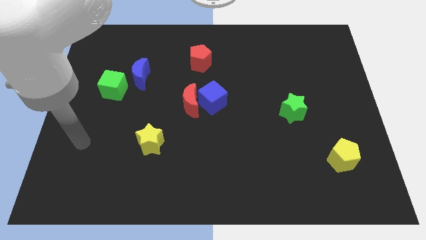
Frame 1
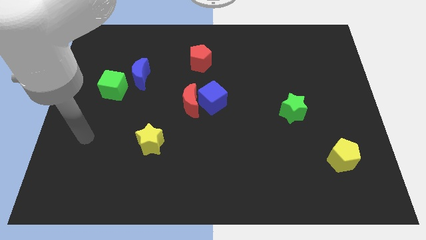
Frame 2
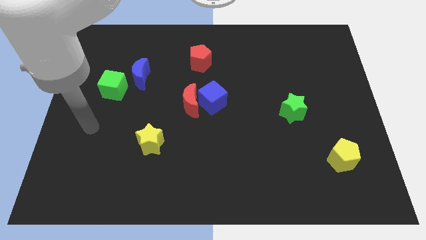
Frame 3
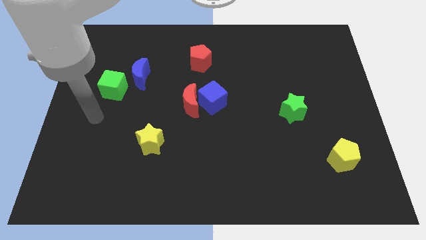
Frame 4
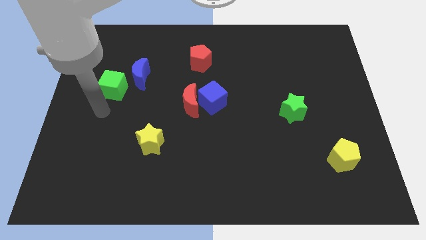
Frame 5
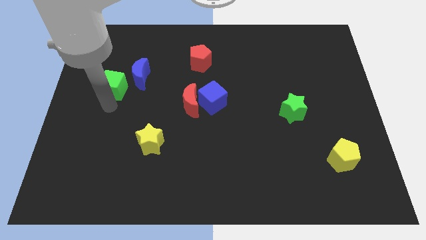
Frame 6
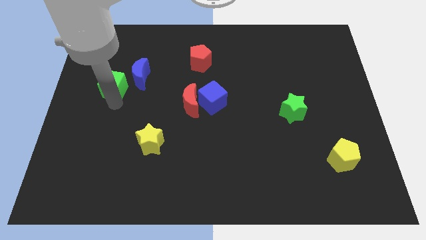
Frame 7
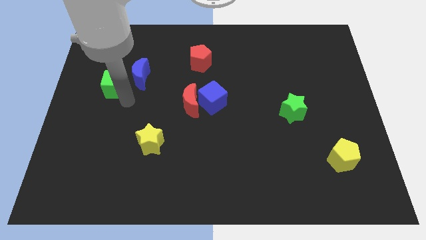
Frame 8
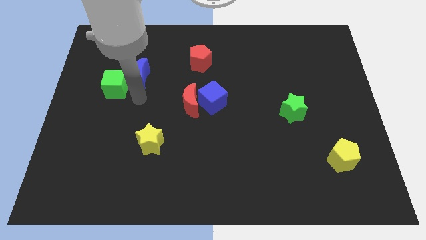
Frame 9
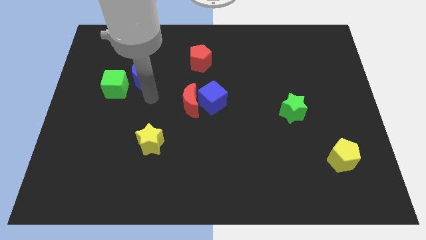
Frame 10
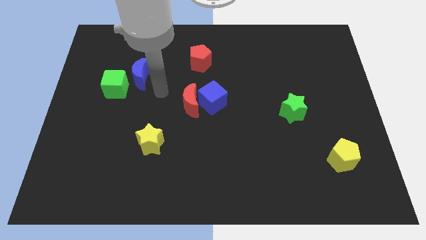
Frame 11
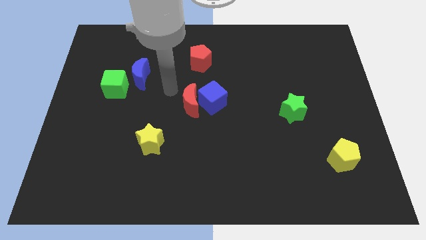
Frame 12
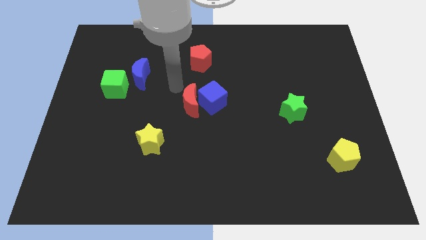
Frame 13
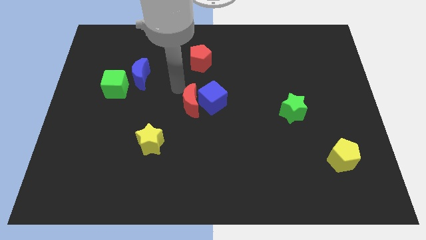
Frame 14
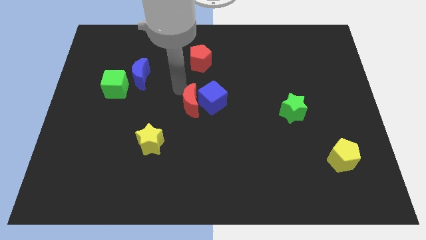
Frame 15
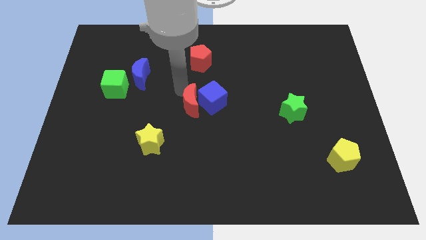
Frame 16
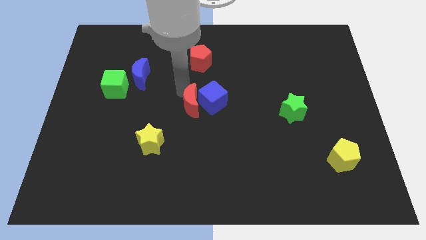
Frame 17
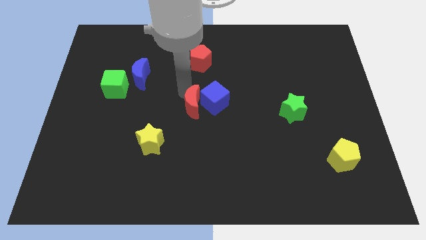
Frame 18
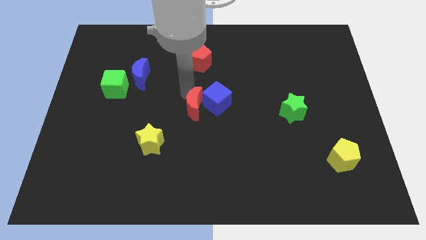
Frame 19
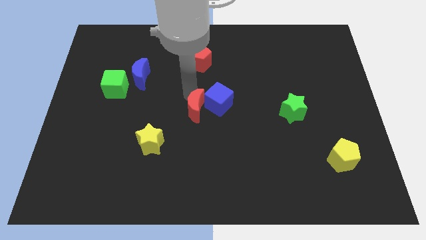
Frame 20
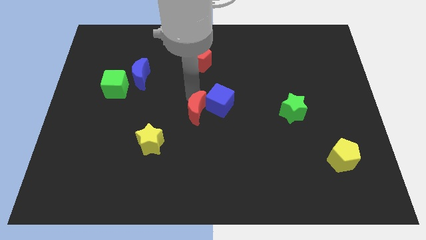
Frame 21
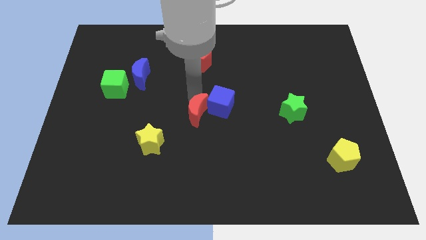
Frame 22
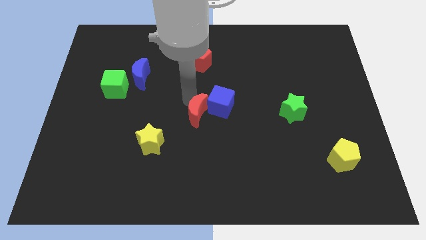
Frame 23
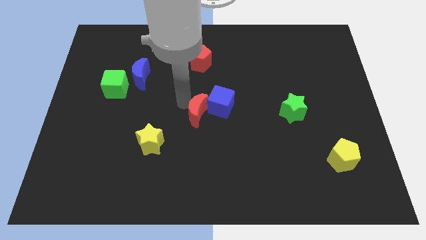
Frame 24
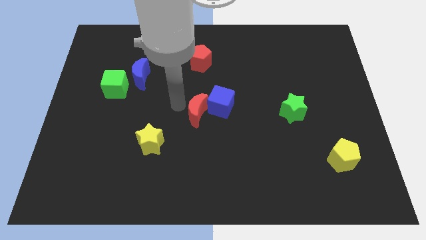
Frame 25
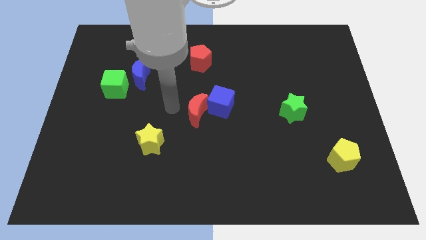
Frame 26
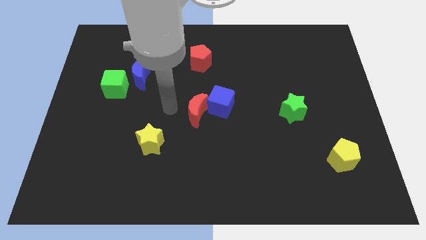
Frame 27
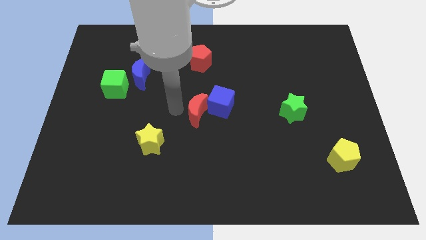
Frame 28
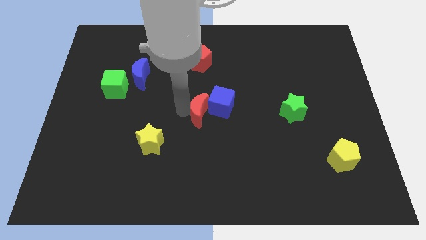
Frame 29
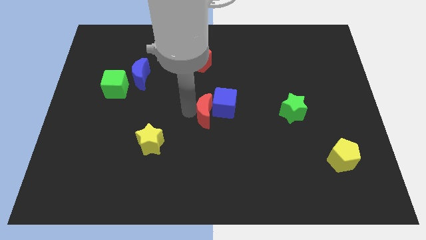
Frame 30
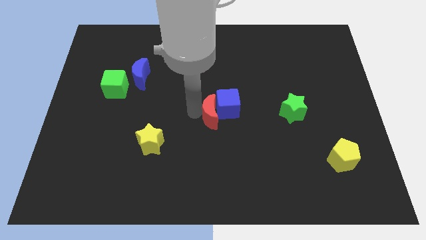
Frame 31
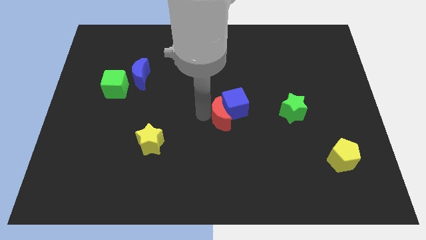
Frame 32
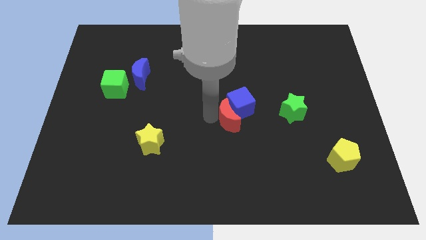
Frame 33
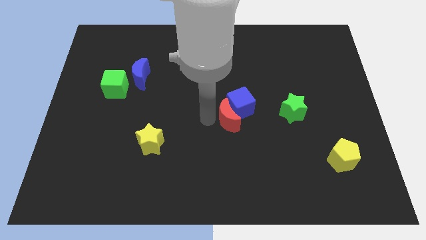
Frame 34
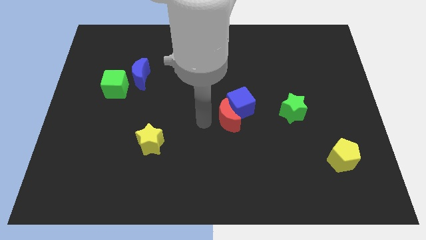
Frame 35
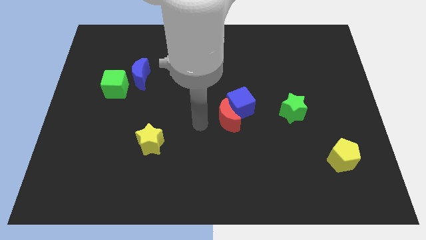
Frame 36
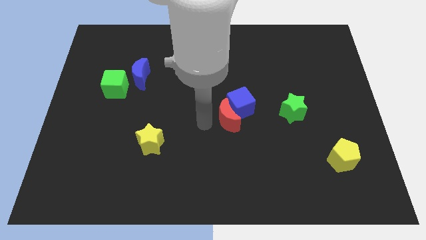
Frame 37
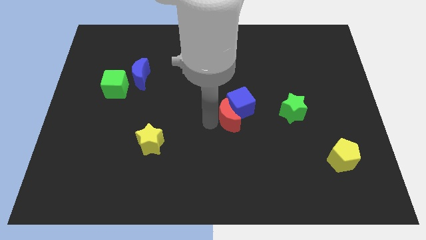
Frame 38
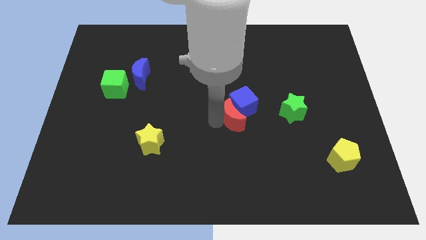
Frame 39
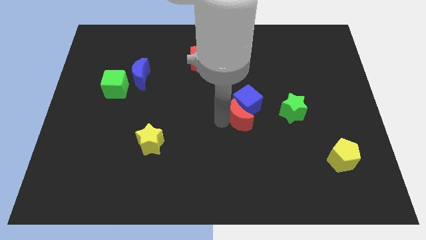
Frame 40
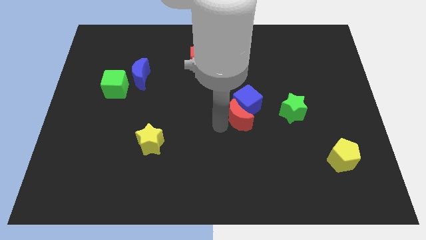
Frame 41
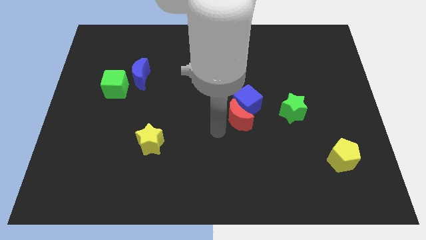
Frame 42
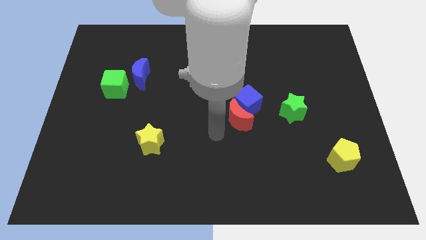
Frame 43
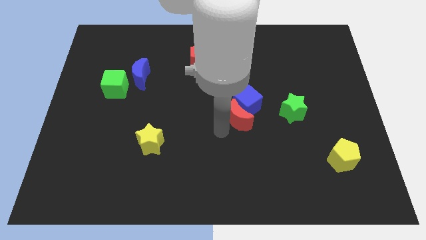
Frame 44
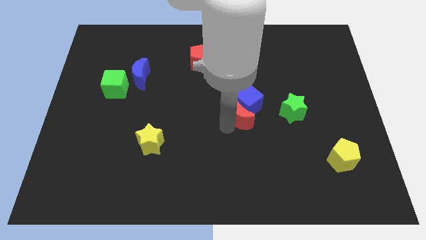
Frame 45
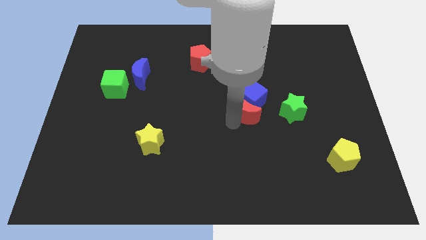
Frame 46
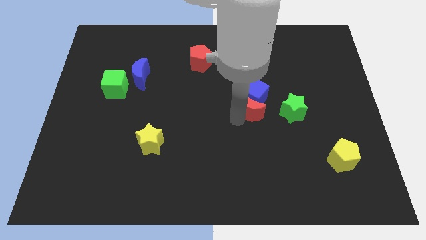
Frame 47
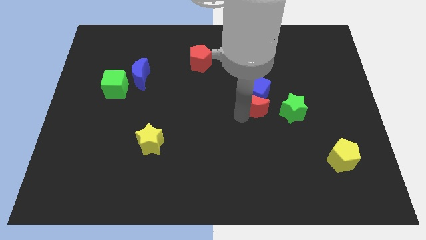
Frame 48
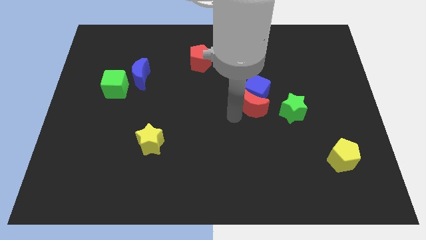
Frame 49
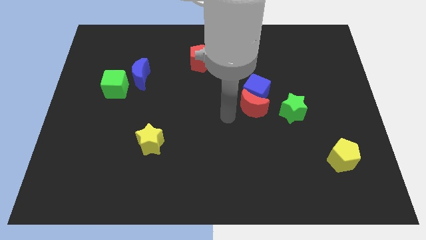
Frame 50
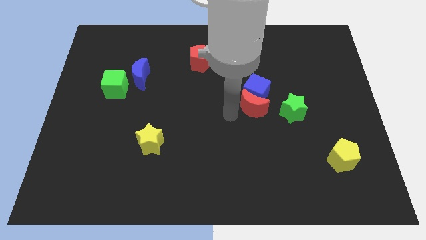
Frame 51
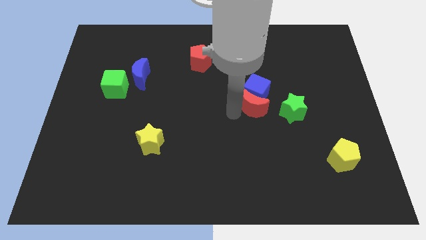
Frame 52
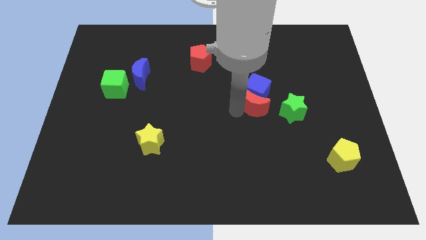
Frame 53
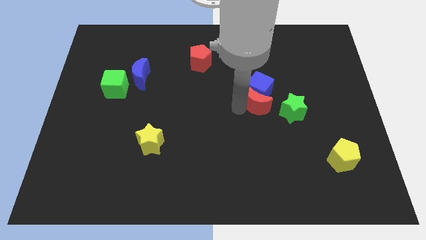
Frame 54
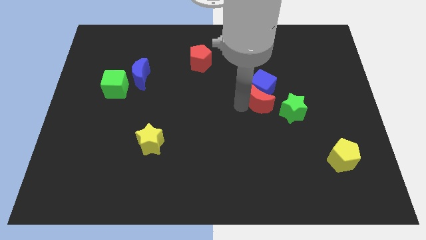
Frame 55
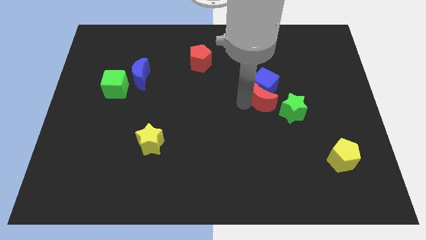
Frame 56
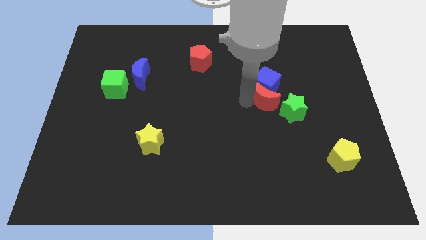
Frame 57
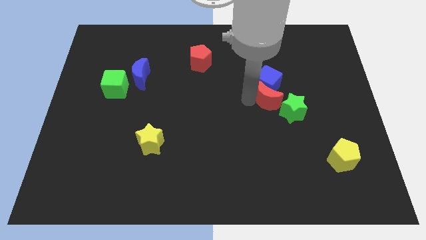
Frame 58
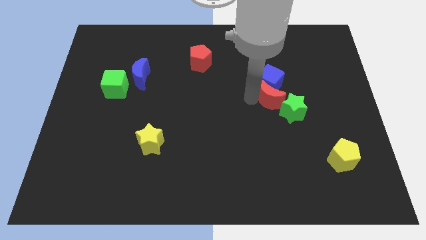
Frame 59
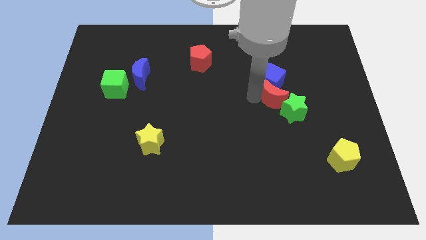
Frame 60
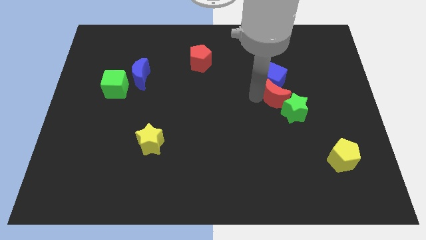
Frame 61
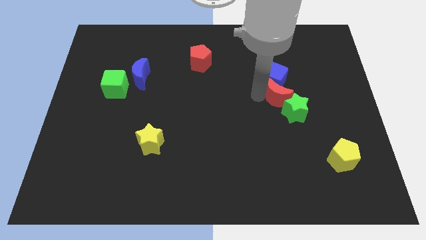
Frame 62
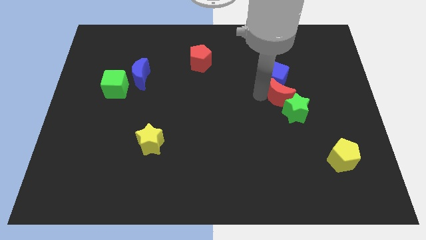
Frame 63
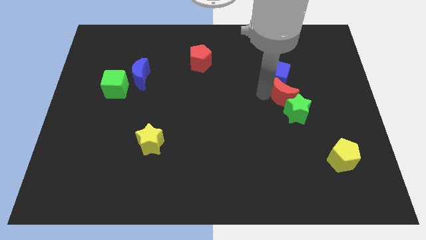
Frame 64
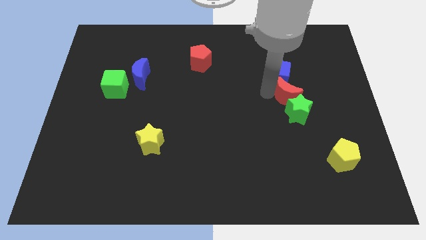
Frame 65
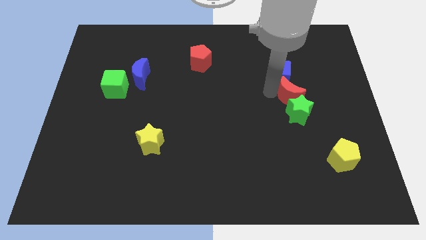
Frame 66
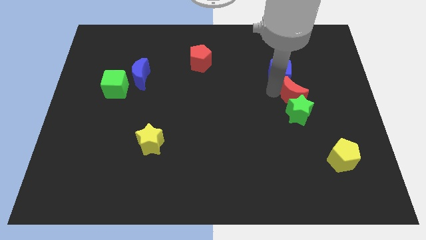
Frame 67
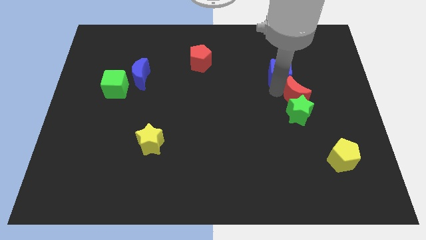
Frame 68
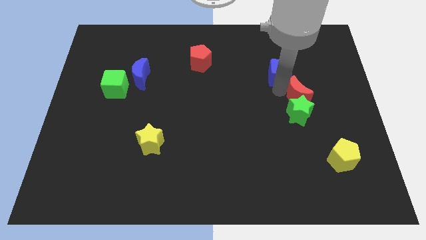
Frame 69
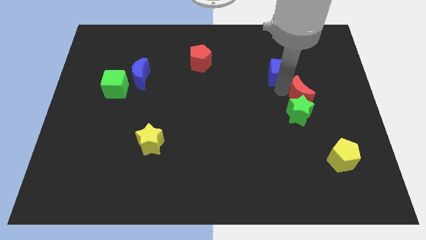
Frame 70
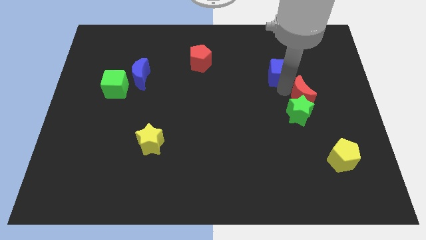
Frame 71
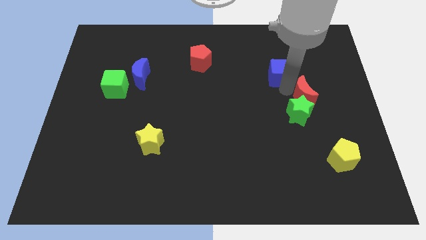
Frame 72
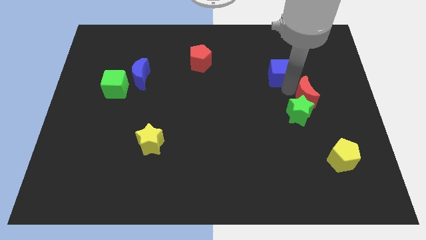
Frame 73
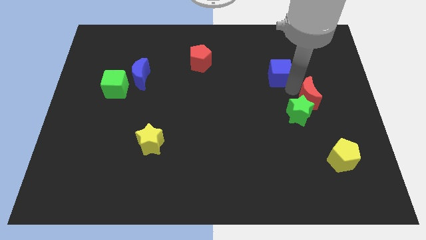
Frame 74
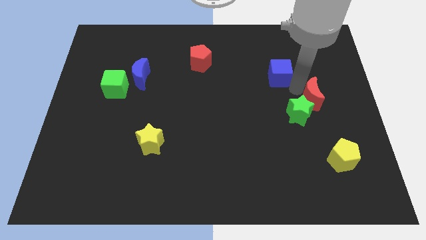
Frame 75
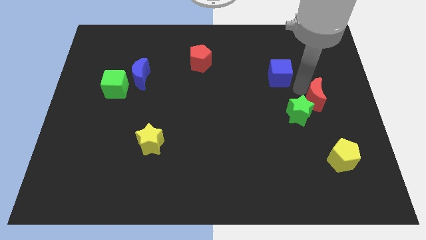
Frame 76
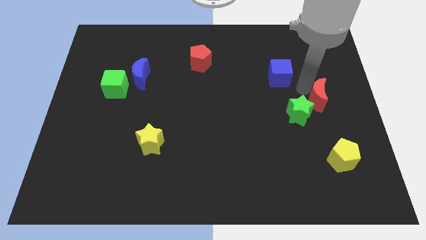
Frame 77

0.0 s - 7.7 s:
put the red moon to the right side
